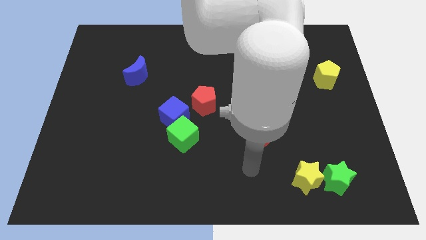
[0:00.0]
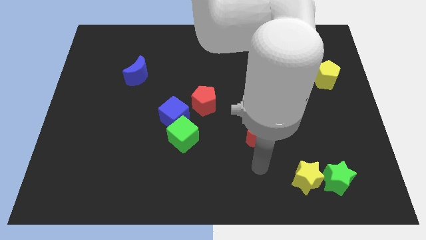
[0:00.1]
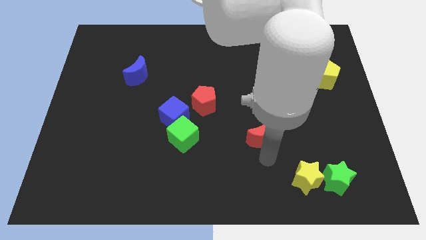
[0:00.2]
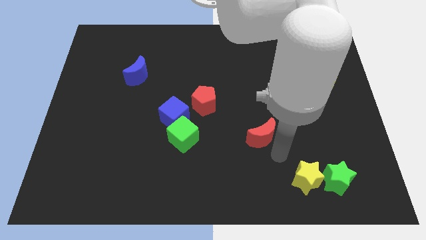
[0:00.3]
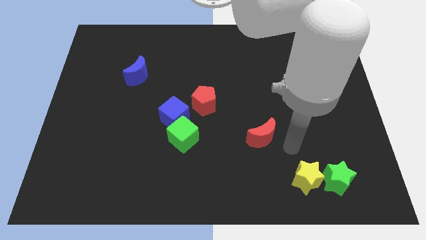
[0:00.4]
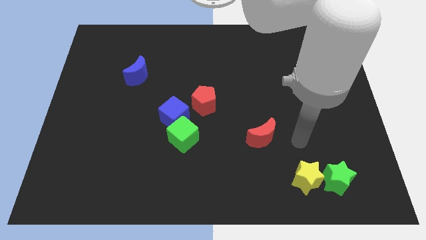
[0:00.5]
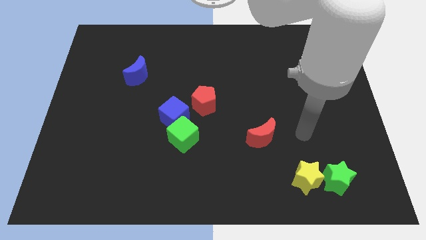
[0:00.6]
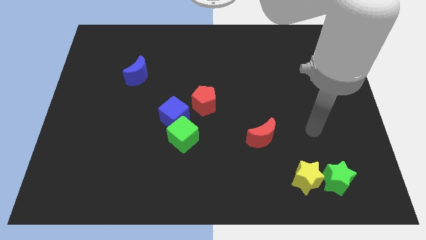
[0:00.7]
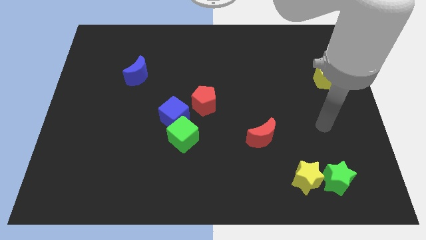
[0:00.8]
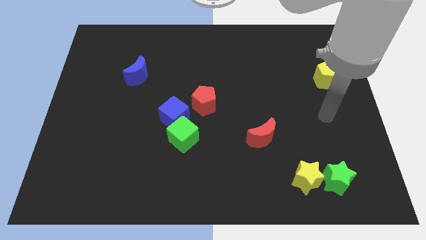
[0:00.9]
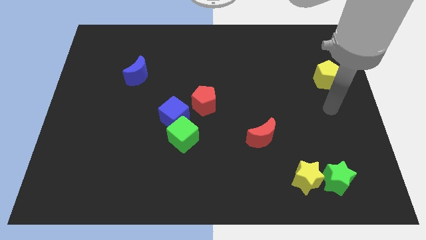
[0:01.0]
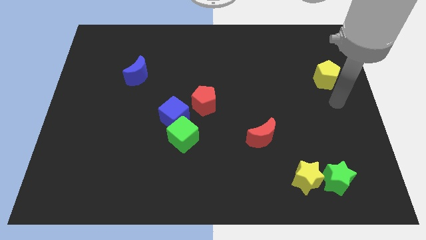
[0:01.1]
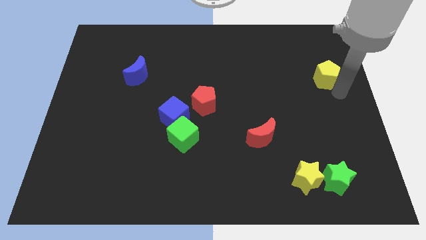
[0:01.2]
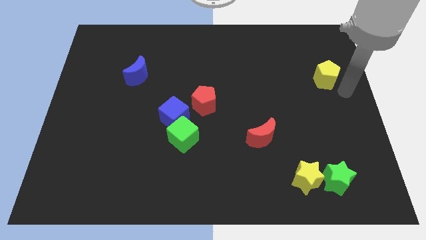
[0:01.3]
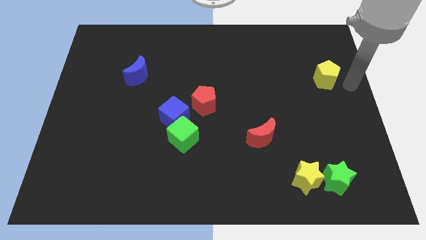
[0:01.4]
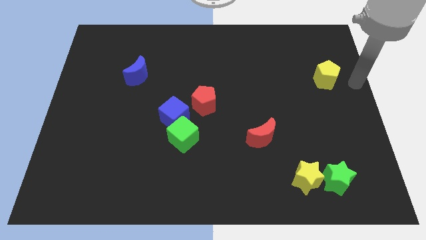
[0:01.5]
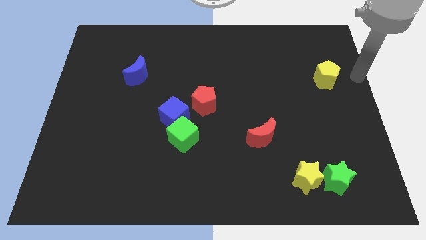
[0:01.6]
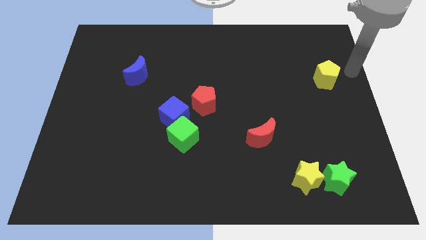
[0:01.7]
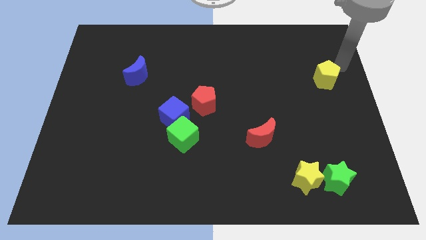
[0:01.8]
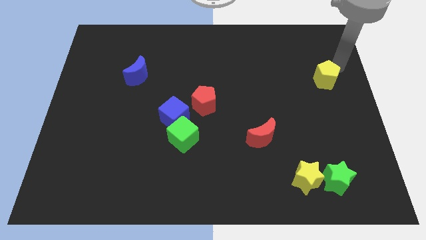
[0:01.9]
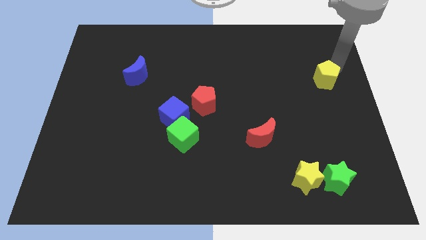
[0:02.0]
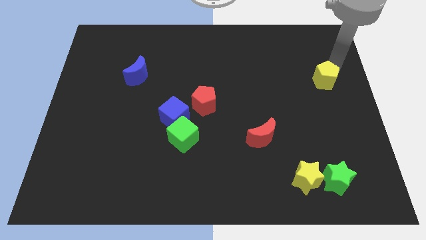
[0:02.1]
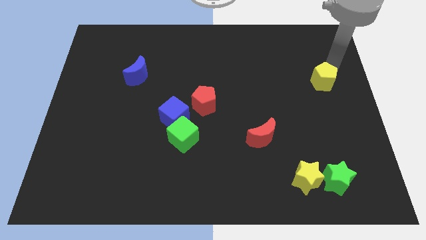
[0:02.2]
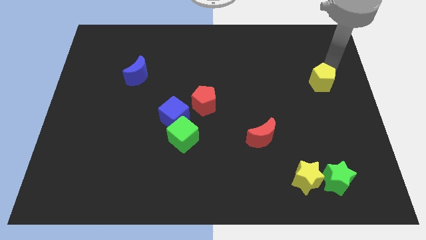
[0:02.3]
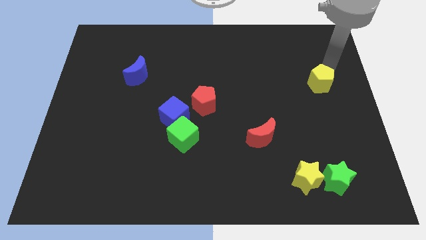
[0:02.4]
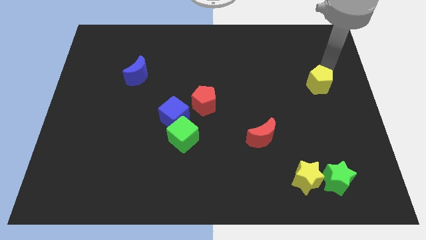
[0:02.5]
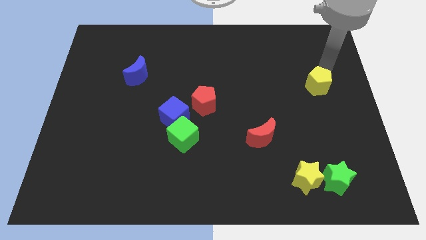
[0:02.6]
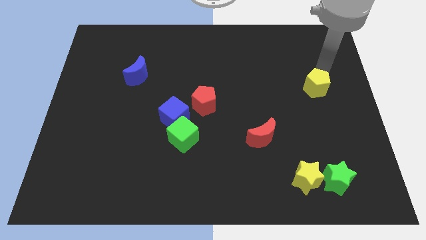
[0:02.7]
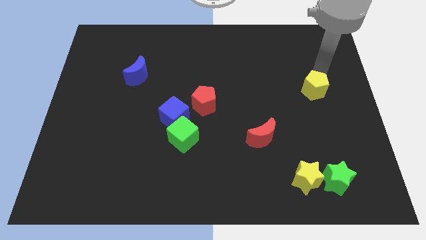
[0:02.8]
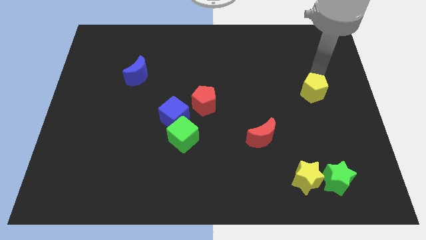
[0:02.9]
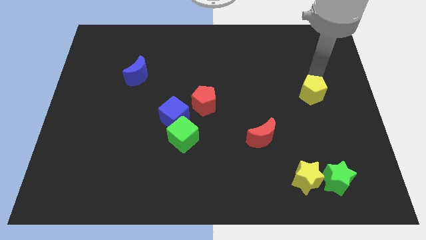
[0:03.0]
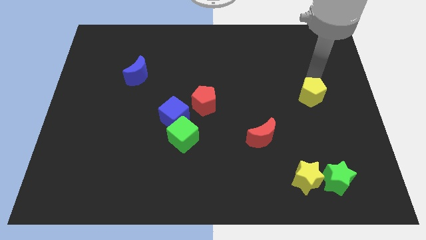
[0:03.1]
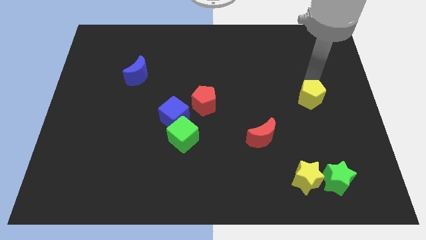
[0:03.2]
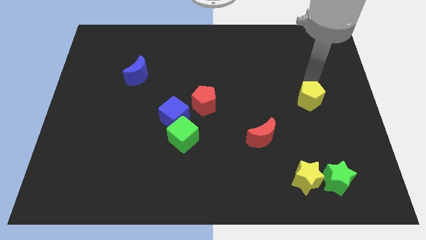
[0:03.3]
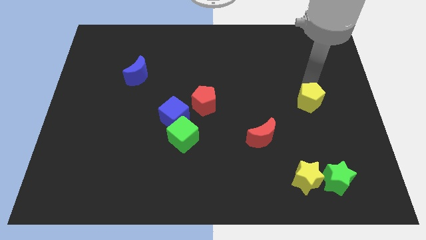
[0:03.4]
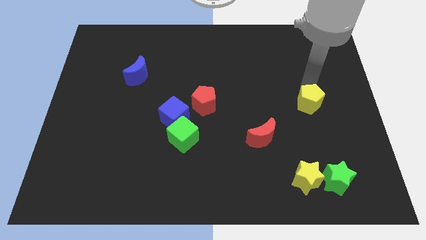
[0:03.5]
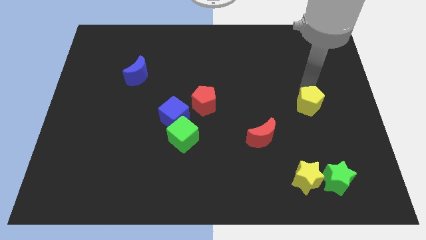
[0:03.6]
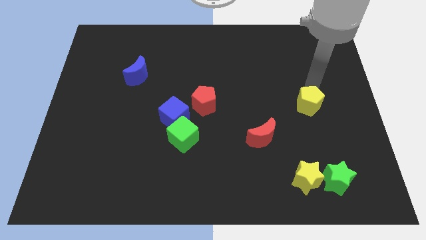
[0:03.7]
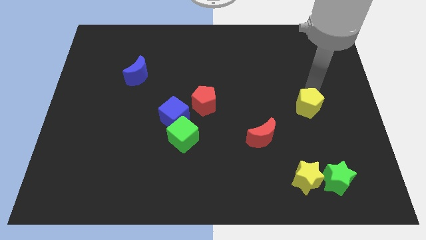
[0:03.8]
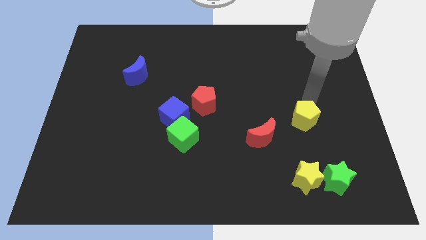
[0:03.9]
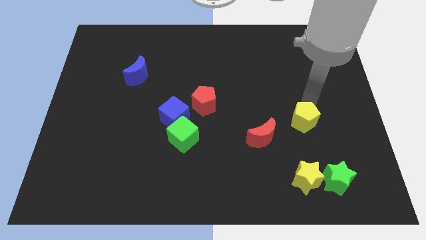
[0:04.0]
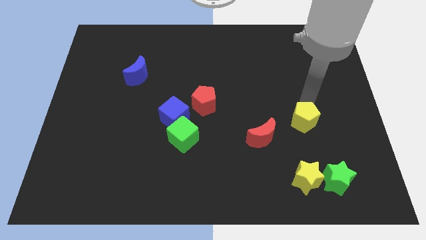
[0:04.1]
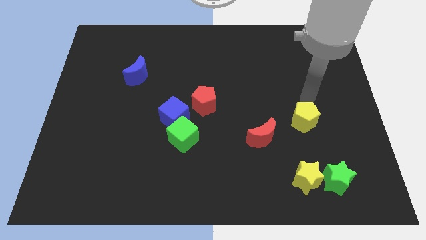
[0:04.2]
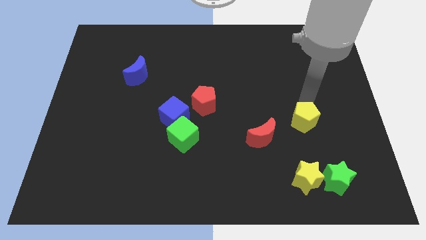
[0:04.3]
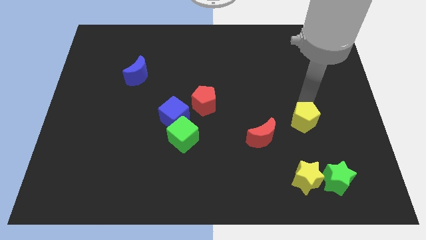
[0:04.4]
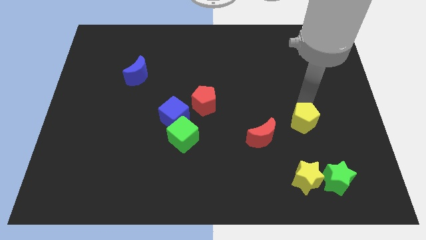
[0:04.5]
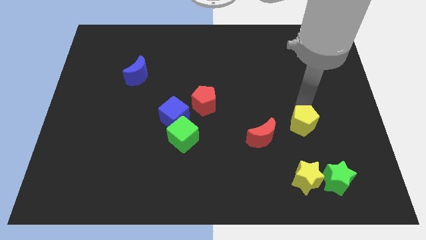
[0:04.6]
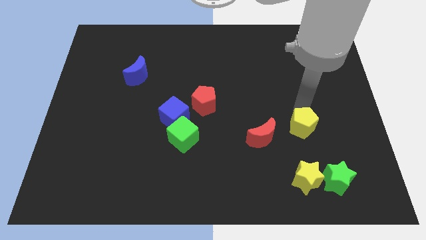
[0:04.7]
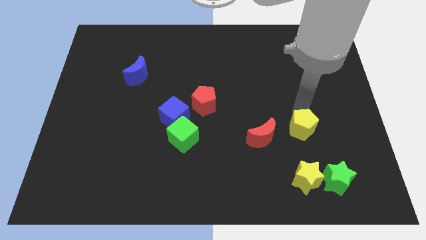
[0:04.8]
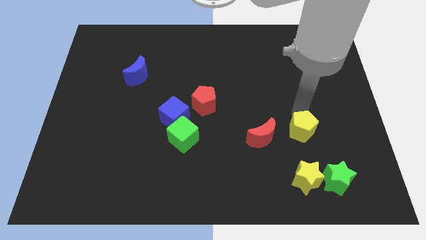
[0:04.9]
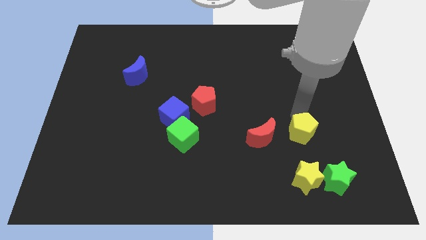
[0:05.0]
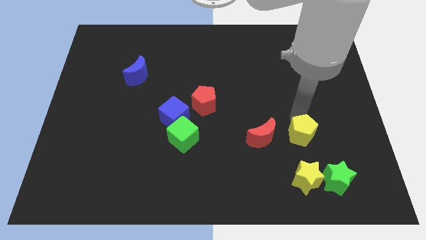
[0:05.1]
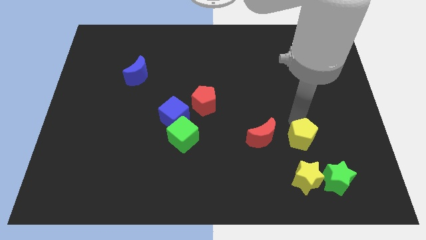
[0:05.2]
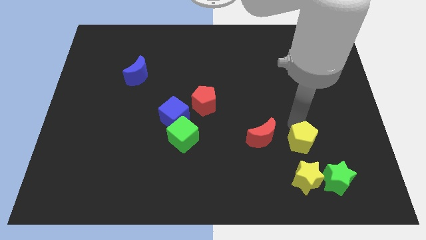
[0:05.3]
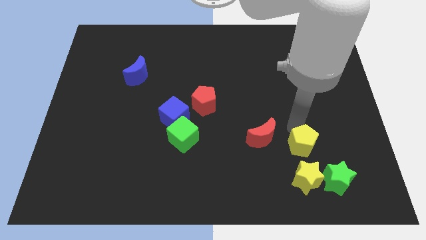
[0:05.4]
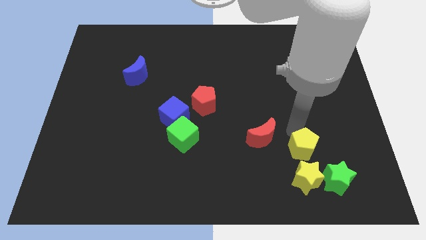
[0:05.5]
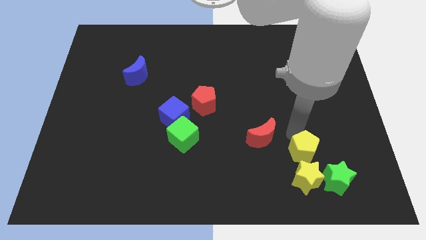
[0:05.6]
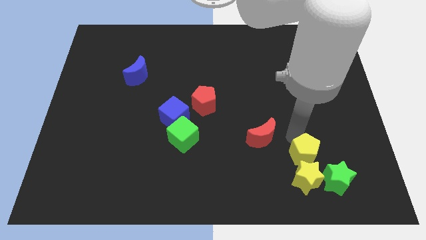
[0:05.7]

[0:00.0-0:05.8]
slide the yellow pentagon to the yellow star

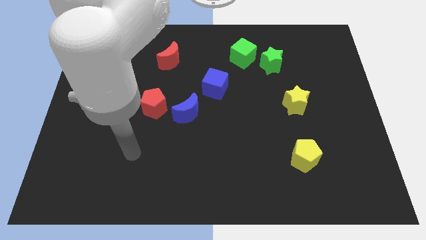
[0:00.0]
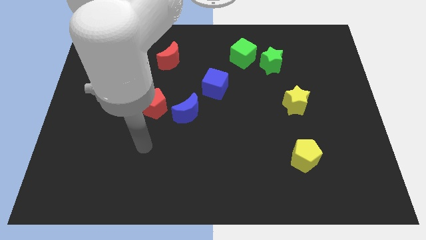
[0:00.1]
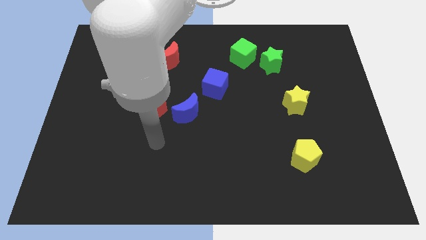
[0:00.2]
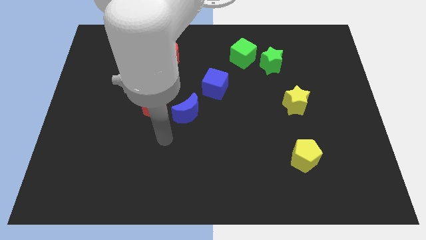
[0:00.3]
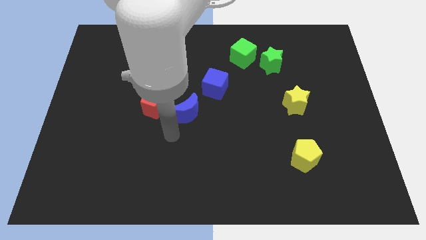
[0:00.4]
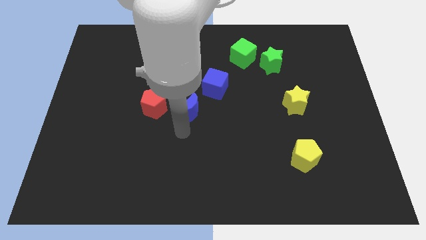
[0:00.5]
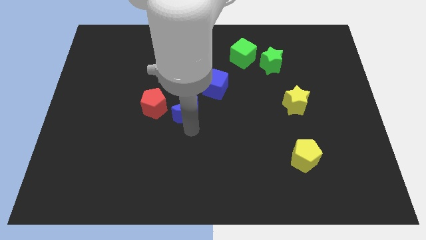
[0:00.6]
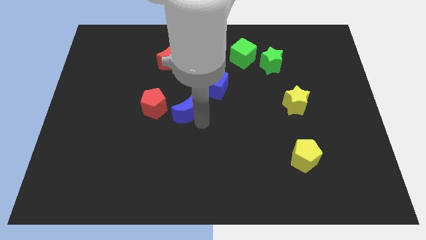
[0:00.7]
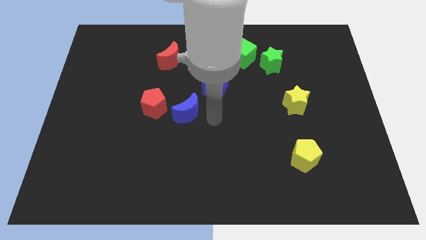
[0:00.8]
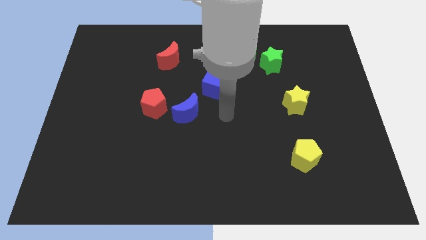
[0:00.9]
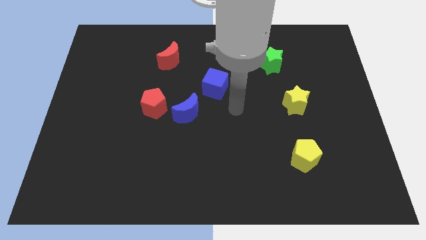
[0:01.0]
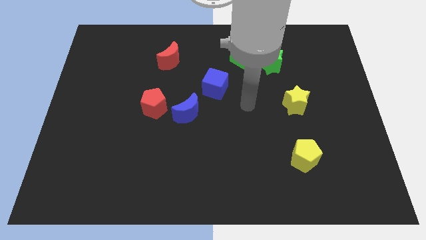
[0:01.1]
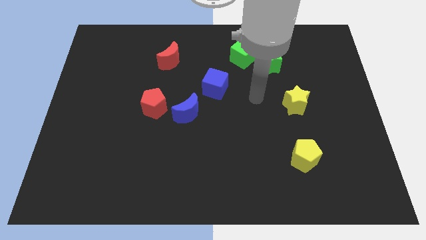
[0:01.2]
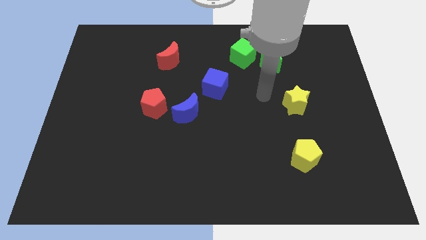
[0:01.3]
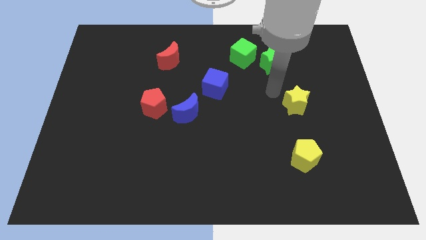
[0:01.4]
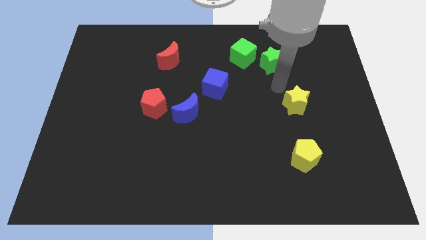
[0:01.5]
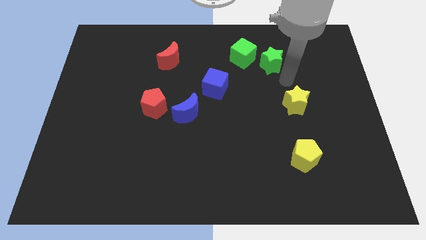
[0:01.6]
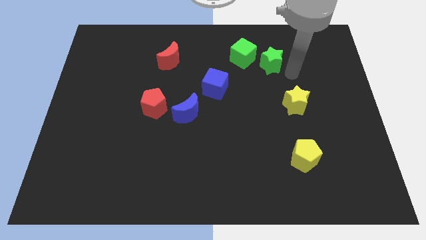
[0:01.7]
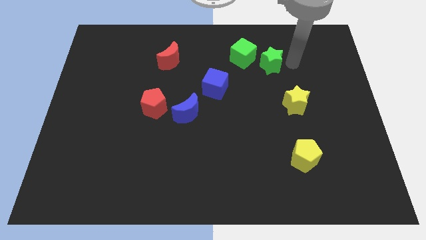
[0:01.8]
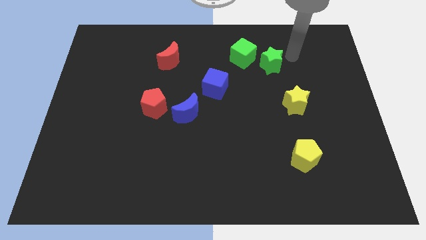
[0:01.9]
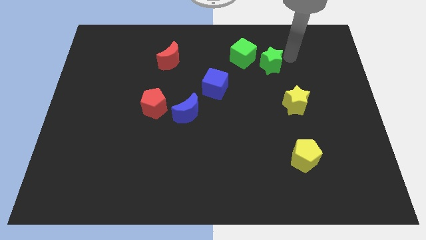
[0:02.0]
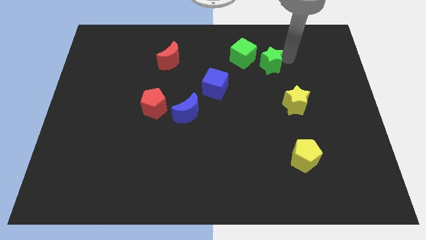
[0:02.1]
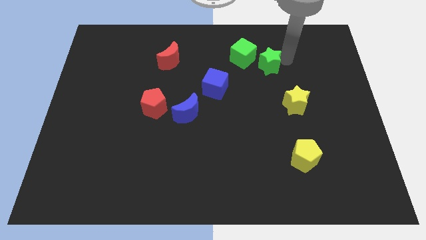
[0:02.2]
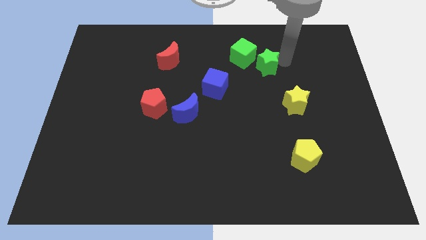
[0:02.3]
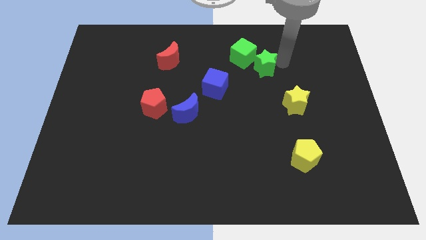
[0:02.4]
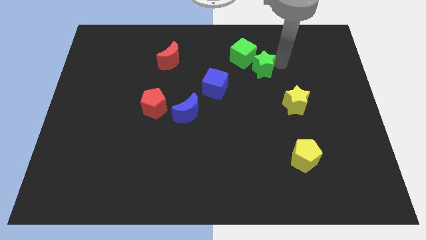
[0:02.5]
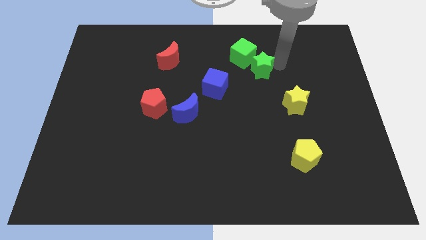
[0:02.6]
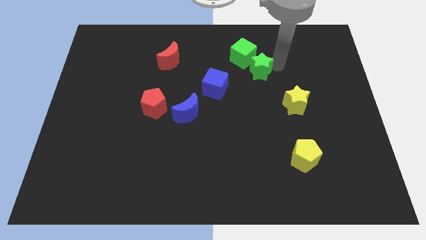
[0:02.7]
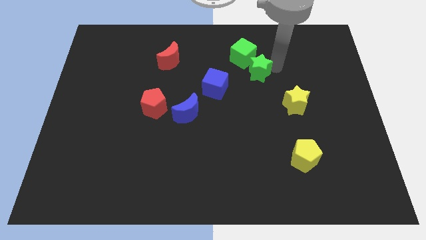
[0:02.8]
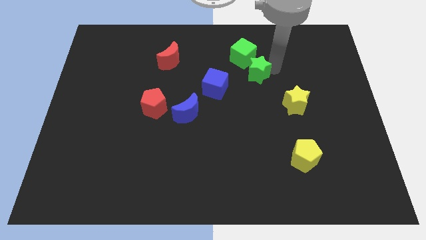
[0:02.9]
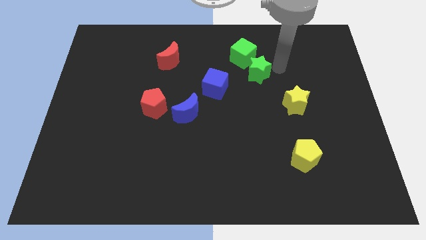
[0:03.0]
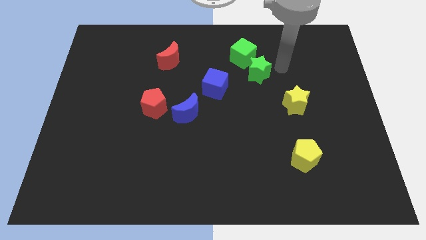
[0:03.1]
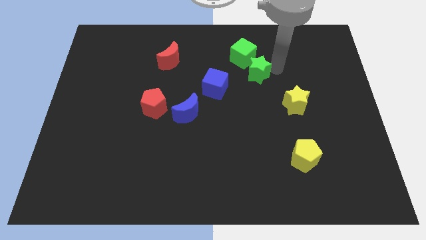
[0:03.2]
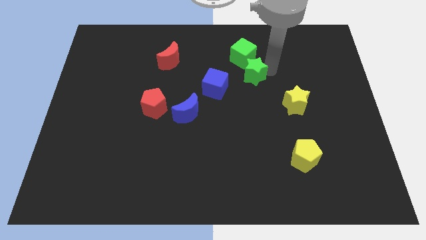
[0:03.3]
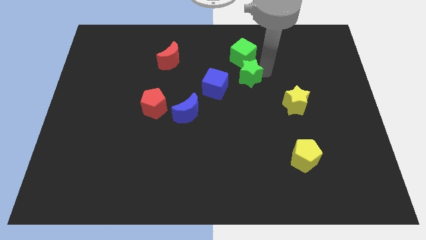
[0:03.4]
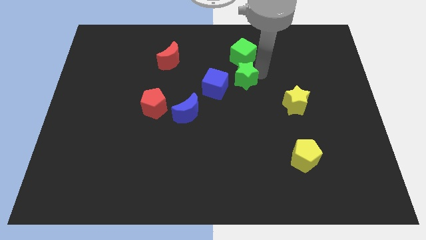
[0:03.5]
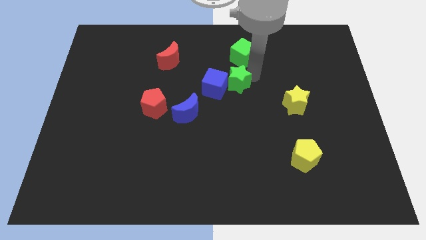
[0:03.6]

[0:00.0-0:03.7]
slide the green star next to the blue cube
